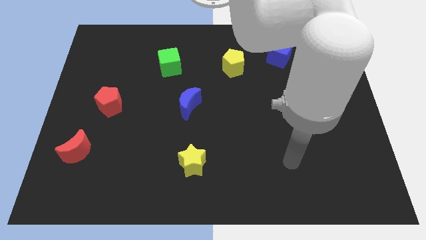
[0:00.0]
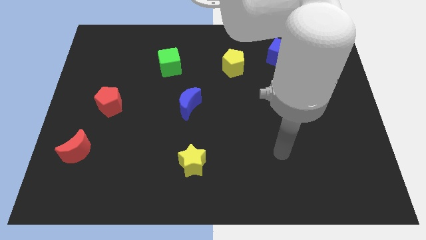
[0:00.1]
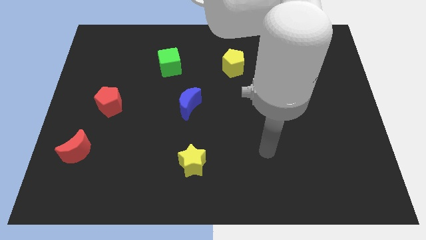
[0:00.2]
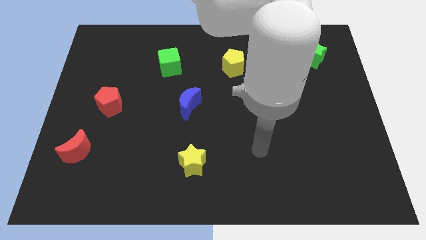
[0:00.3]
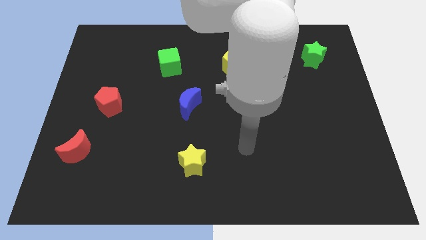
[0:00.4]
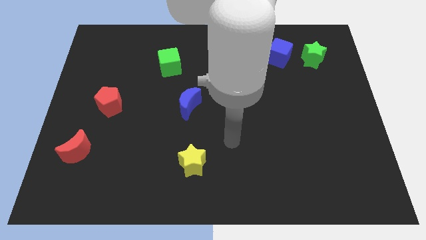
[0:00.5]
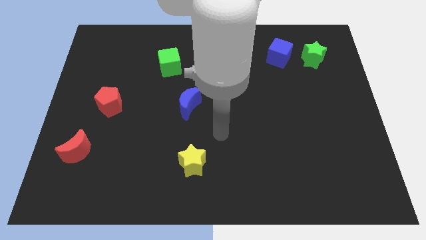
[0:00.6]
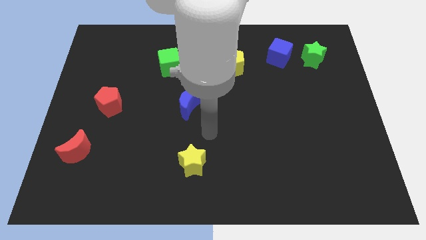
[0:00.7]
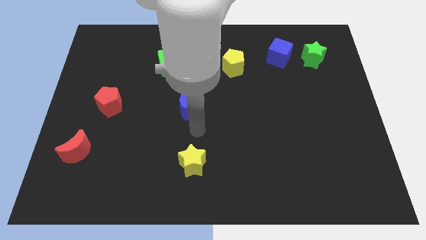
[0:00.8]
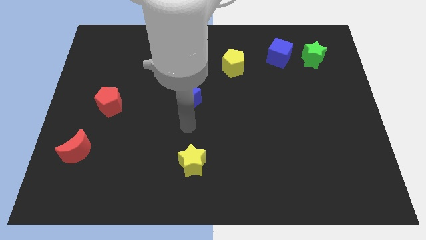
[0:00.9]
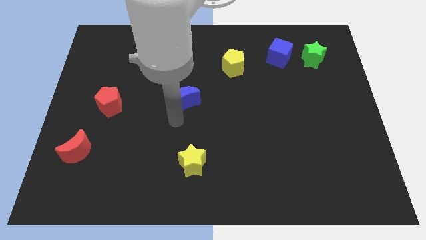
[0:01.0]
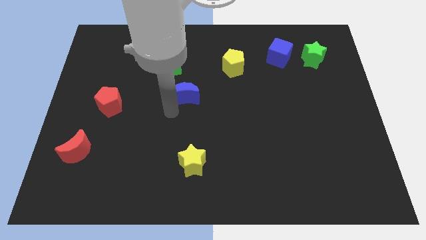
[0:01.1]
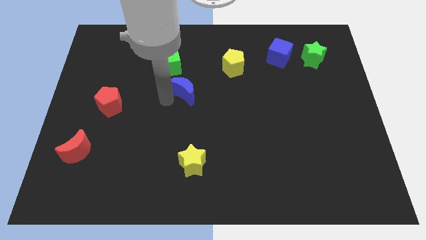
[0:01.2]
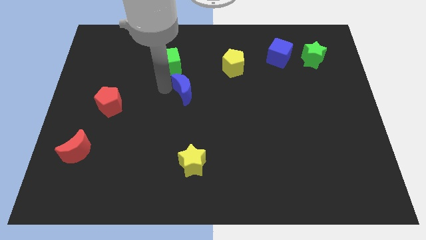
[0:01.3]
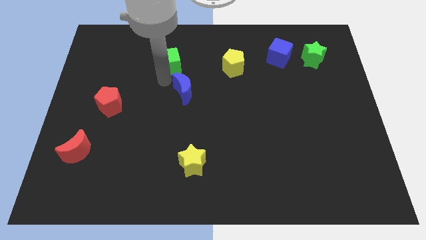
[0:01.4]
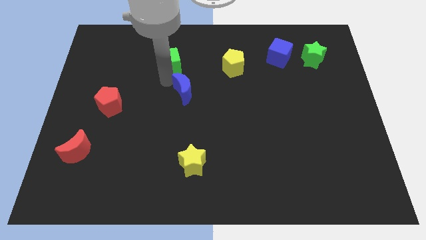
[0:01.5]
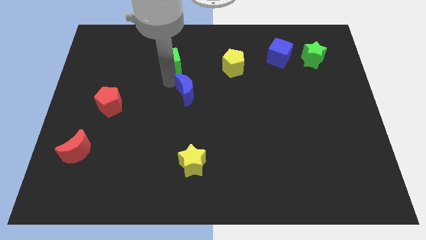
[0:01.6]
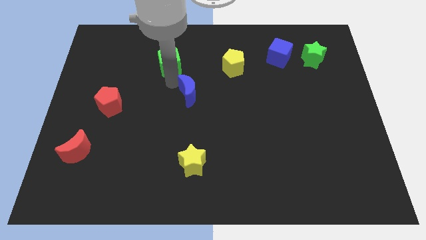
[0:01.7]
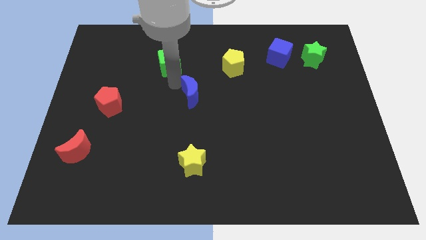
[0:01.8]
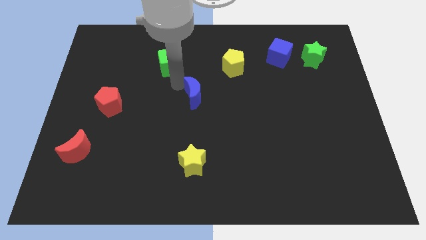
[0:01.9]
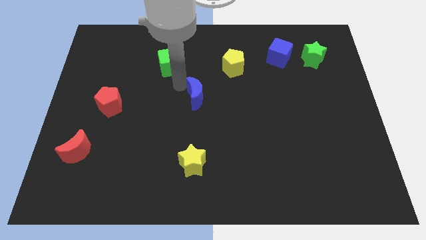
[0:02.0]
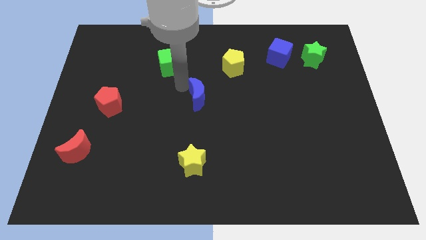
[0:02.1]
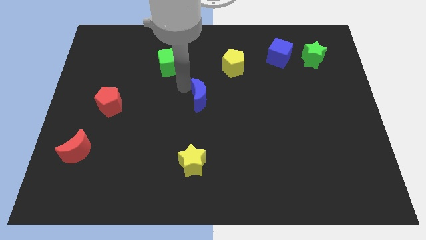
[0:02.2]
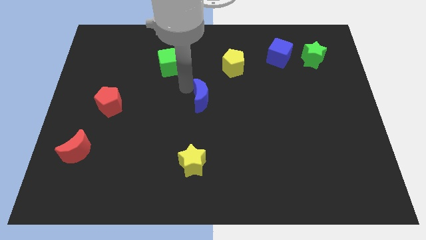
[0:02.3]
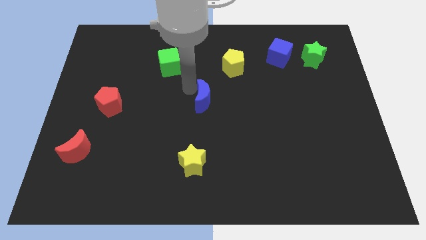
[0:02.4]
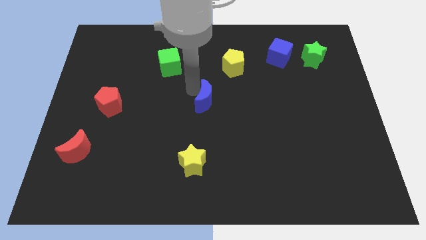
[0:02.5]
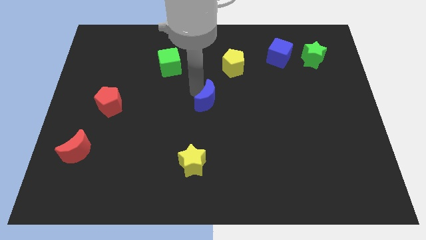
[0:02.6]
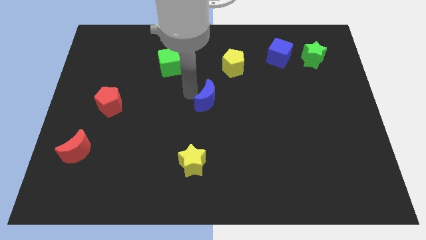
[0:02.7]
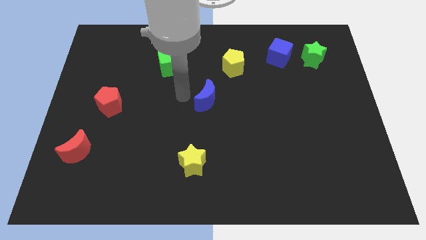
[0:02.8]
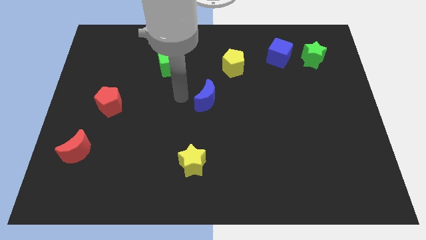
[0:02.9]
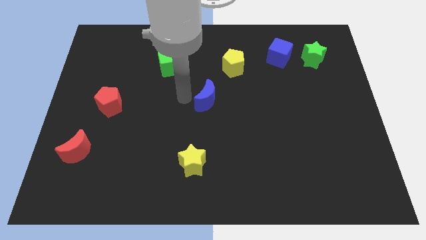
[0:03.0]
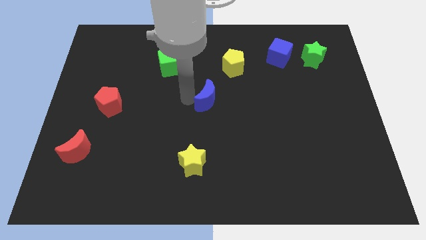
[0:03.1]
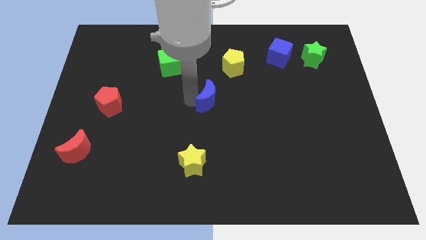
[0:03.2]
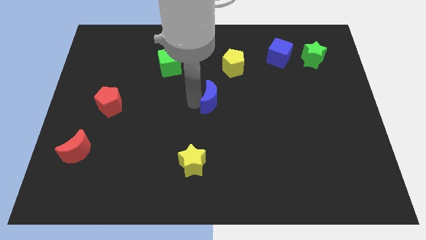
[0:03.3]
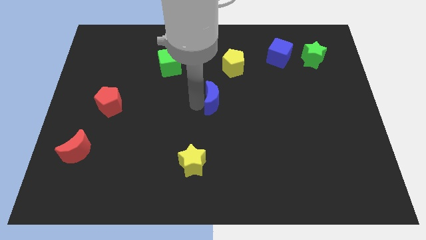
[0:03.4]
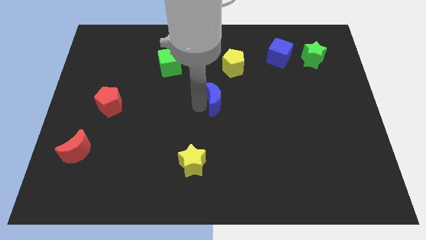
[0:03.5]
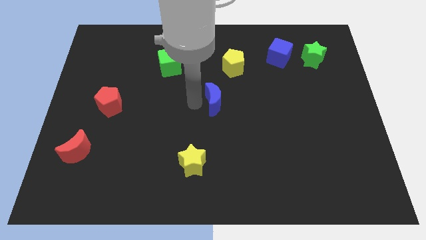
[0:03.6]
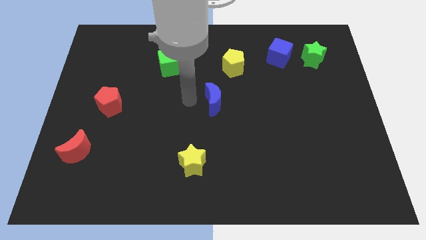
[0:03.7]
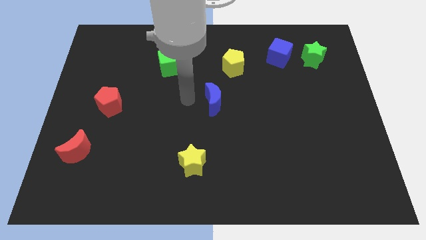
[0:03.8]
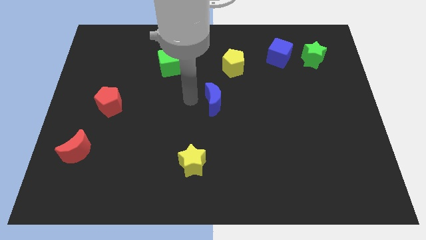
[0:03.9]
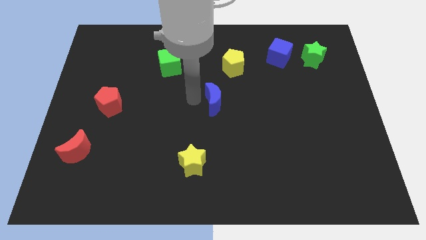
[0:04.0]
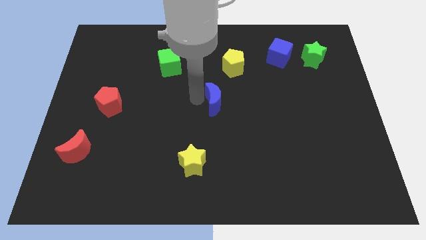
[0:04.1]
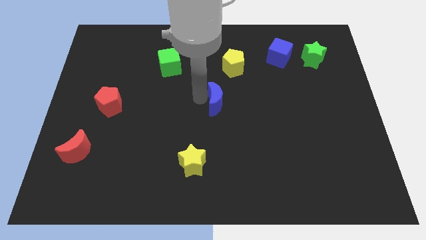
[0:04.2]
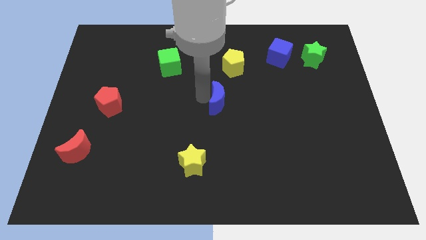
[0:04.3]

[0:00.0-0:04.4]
move the blue moon to the right a little

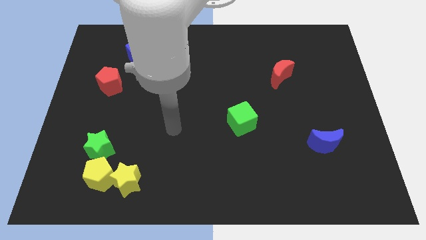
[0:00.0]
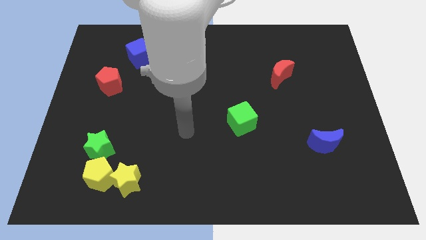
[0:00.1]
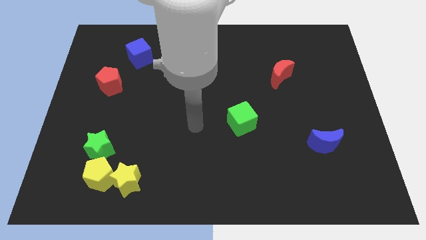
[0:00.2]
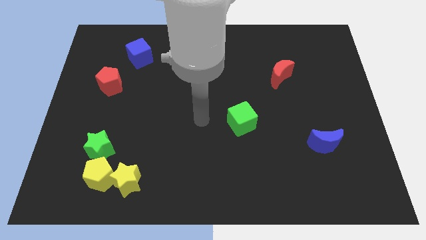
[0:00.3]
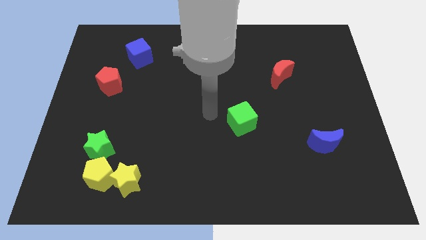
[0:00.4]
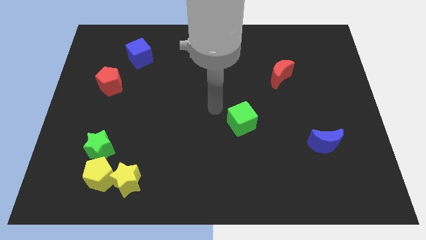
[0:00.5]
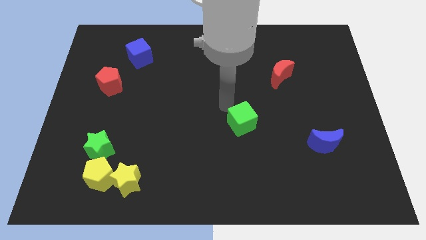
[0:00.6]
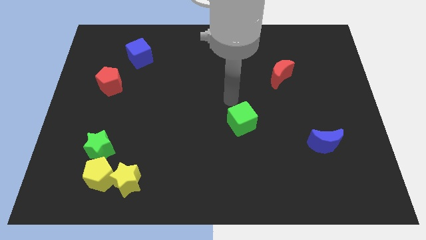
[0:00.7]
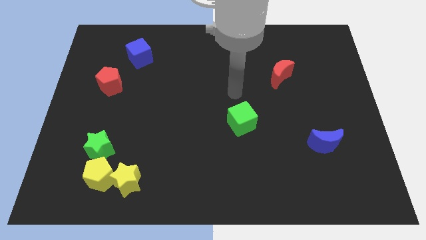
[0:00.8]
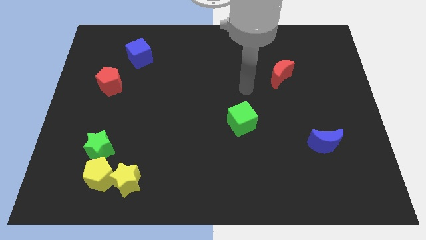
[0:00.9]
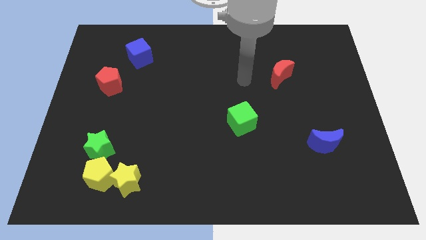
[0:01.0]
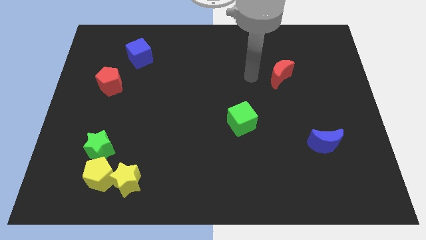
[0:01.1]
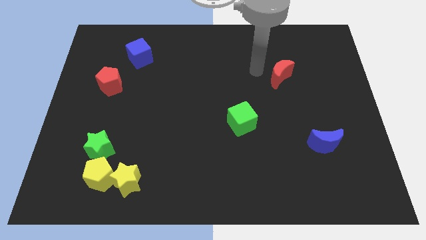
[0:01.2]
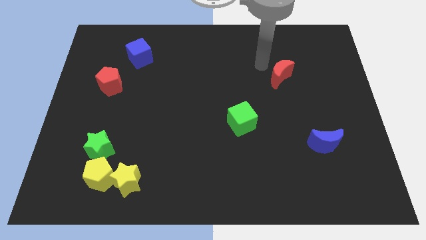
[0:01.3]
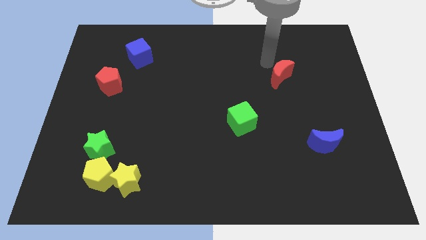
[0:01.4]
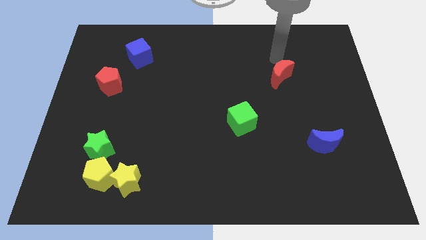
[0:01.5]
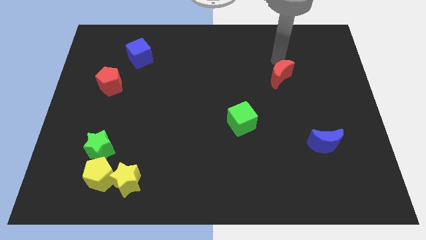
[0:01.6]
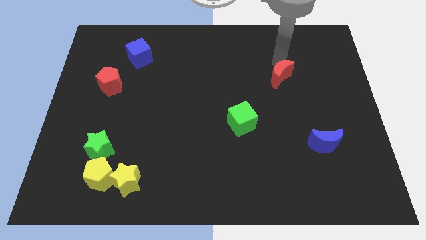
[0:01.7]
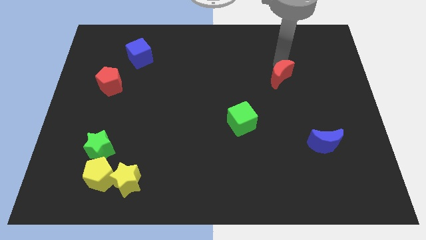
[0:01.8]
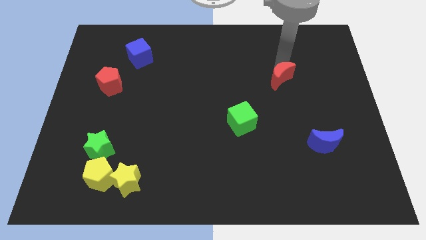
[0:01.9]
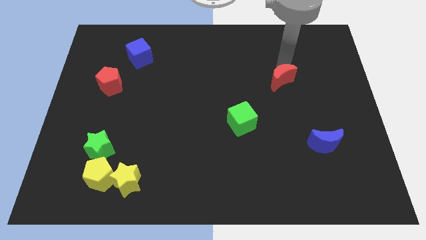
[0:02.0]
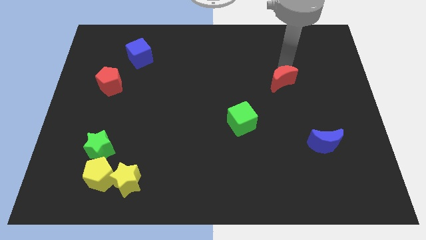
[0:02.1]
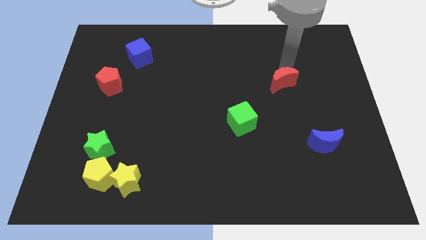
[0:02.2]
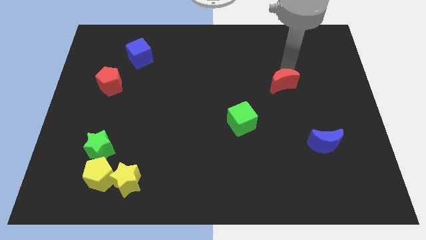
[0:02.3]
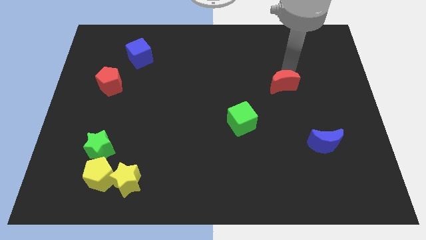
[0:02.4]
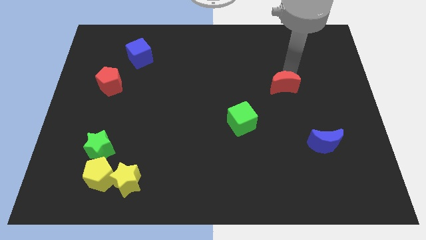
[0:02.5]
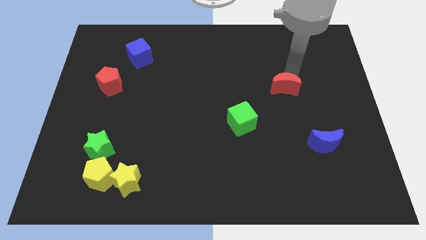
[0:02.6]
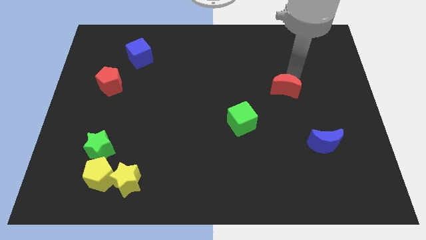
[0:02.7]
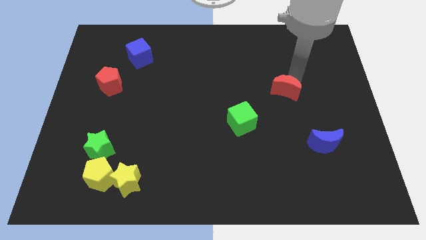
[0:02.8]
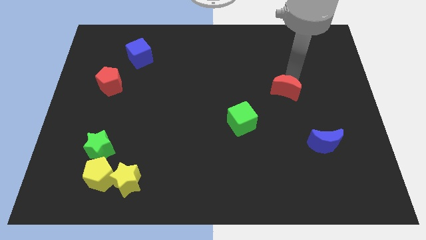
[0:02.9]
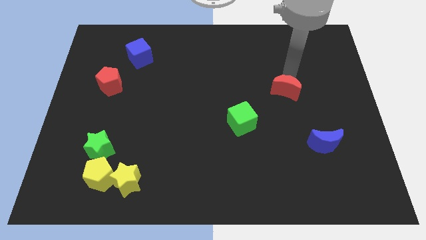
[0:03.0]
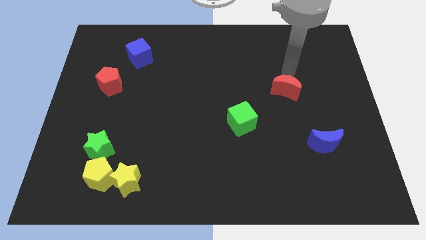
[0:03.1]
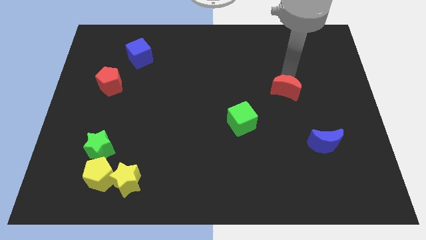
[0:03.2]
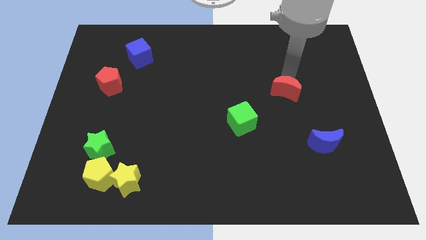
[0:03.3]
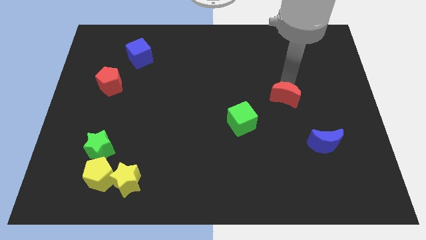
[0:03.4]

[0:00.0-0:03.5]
slide the red moon slightly downwards

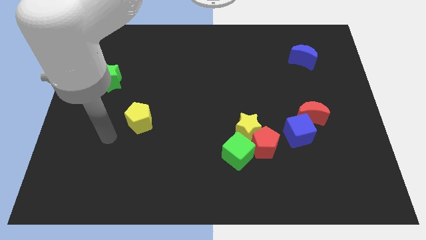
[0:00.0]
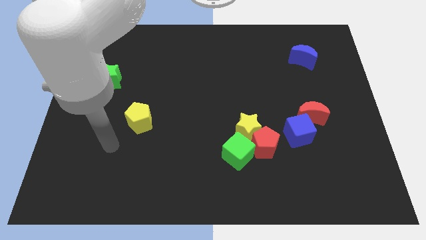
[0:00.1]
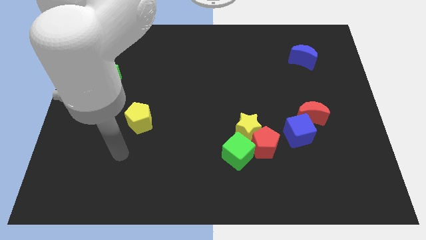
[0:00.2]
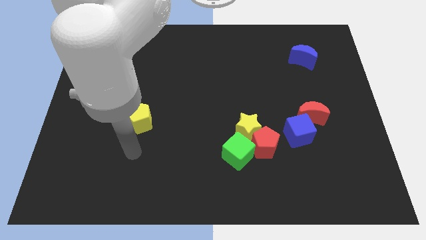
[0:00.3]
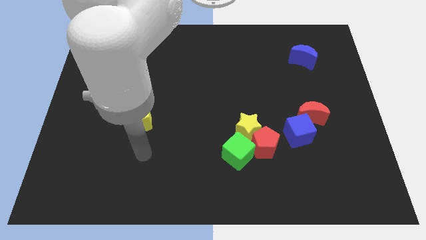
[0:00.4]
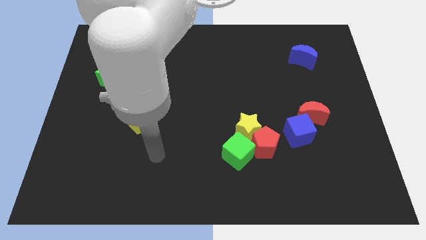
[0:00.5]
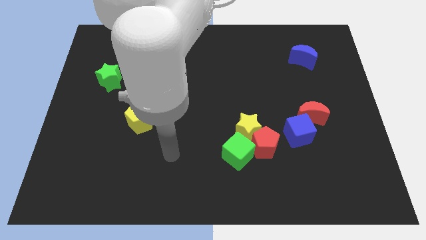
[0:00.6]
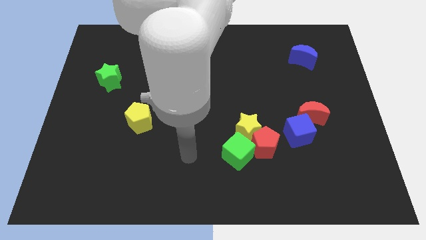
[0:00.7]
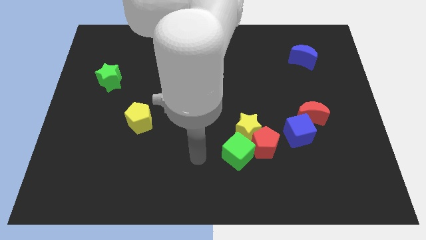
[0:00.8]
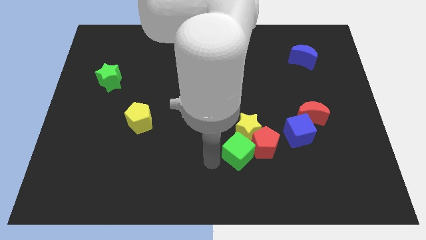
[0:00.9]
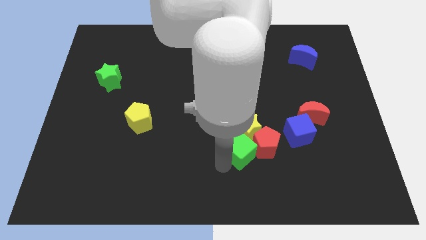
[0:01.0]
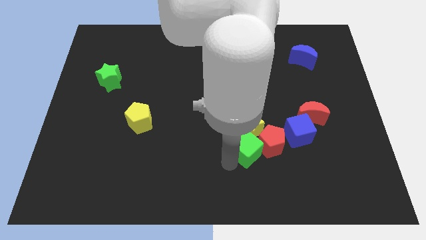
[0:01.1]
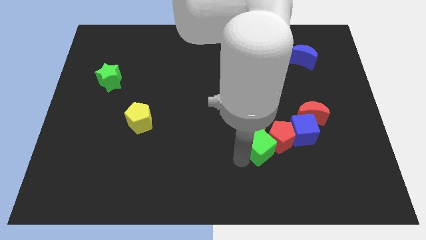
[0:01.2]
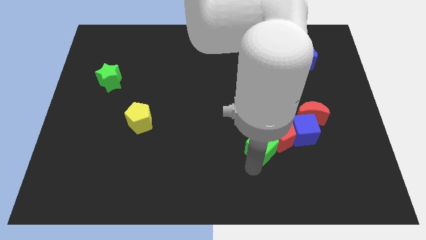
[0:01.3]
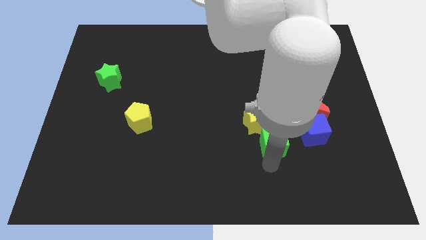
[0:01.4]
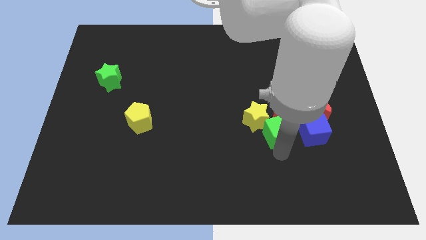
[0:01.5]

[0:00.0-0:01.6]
slightly push the red pentagon upwards
